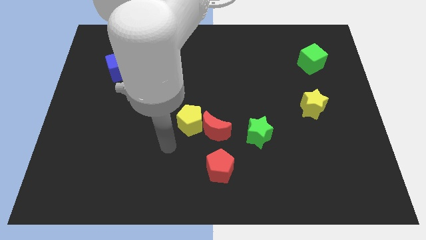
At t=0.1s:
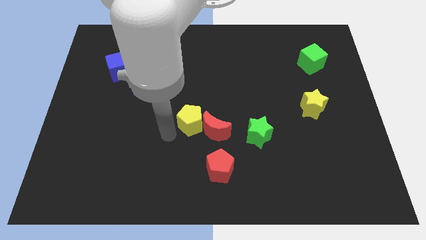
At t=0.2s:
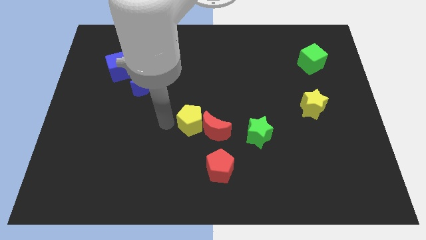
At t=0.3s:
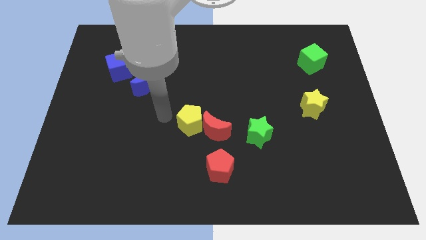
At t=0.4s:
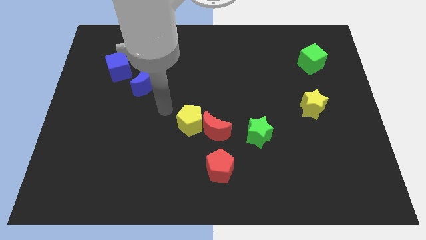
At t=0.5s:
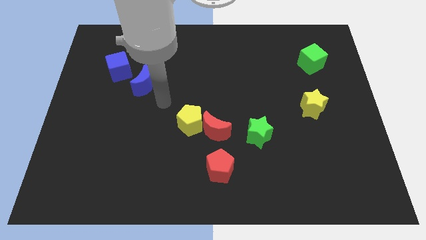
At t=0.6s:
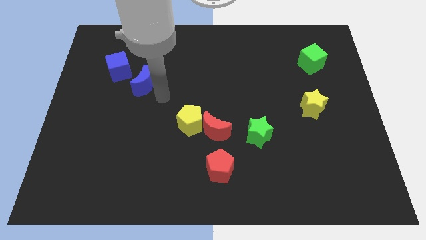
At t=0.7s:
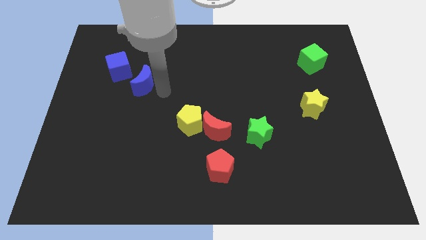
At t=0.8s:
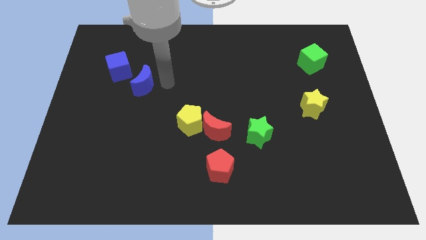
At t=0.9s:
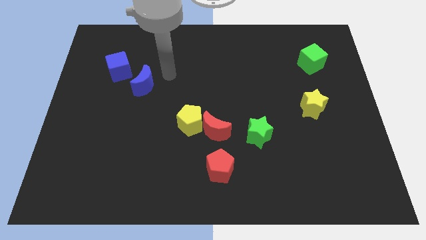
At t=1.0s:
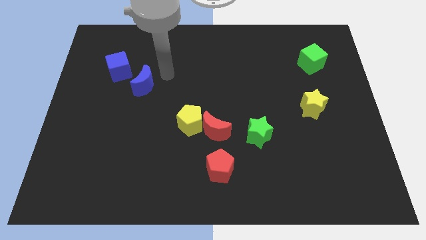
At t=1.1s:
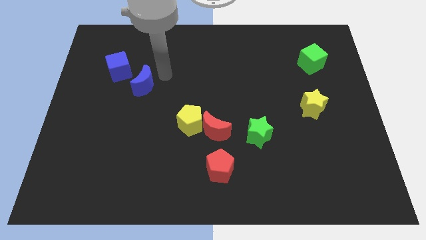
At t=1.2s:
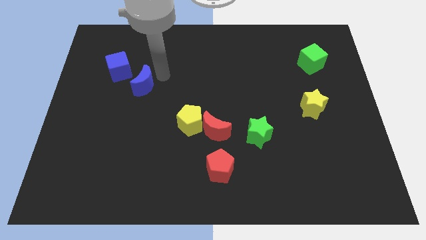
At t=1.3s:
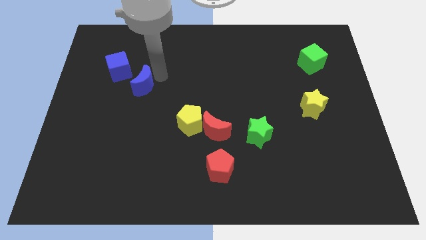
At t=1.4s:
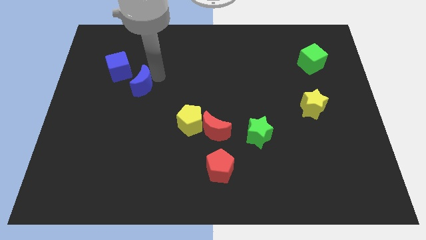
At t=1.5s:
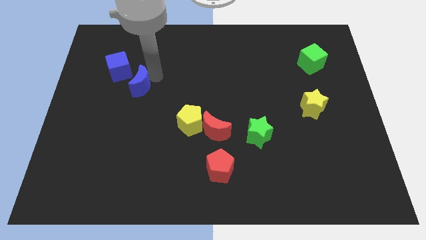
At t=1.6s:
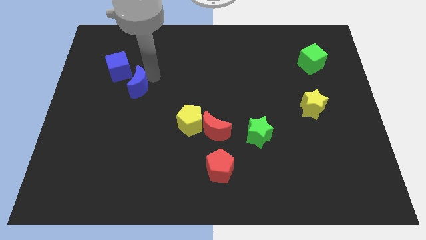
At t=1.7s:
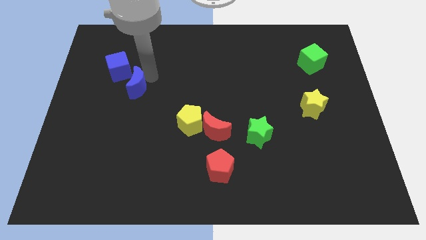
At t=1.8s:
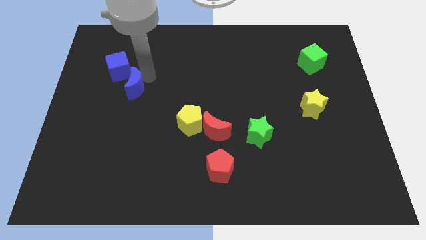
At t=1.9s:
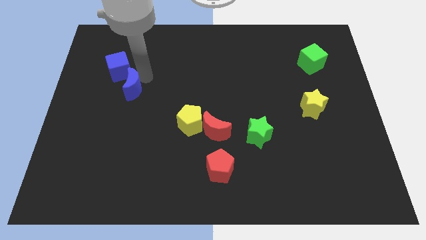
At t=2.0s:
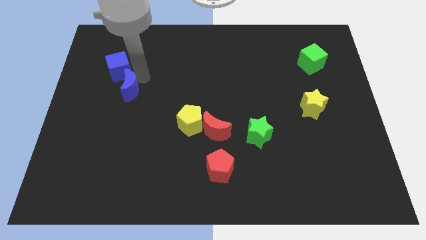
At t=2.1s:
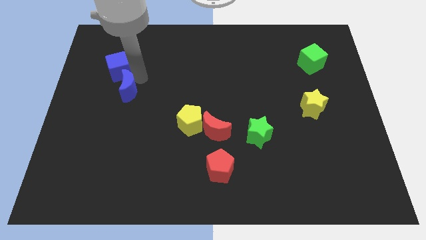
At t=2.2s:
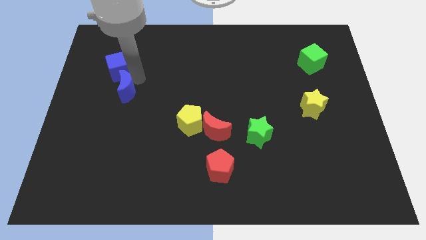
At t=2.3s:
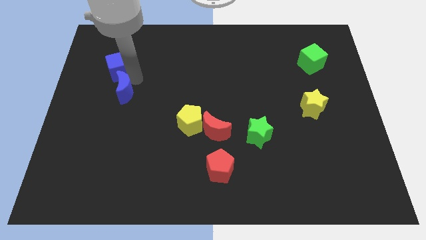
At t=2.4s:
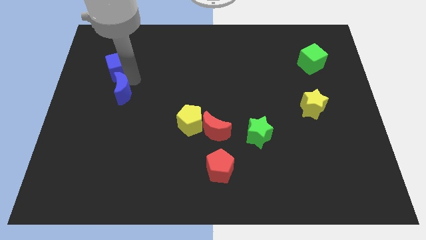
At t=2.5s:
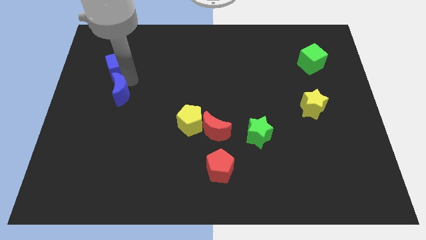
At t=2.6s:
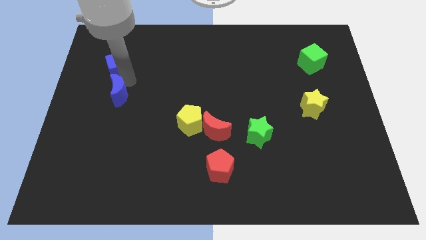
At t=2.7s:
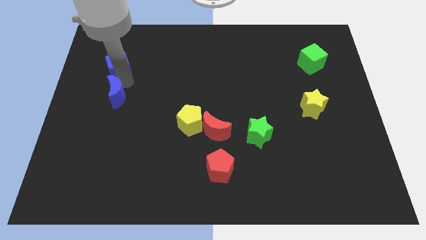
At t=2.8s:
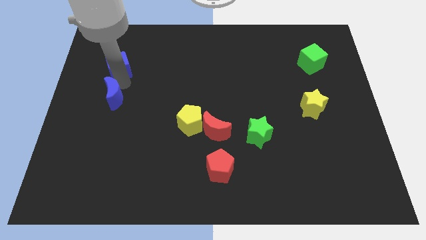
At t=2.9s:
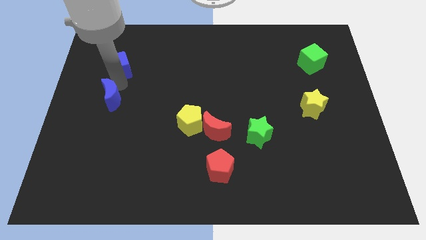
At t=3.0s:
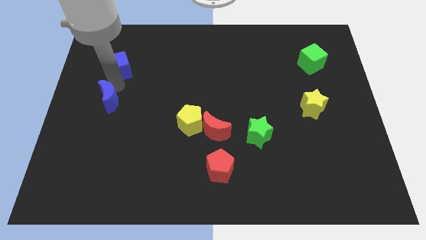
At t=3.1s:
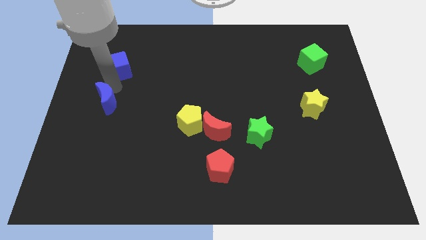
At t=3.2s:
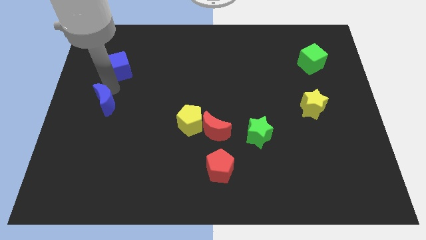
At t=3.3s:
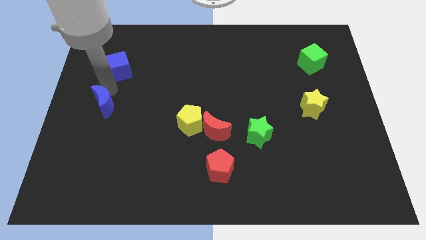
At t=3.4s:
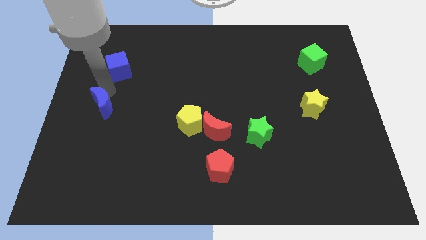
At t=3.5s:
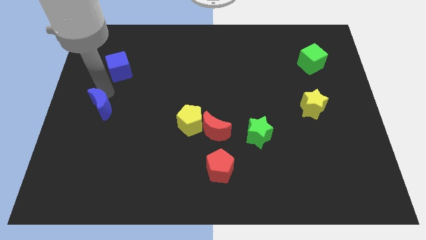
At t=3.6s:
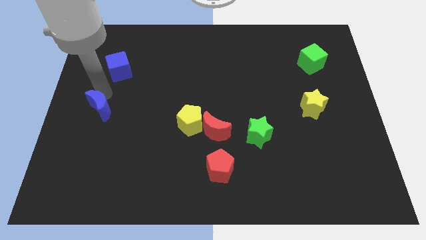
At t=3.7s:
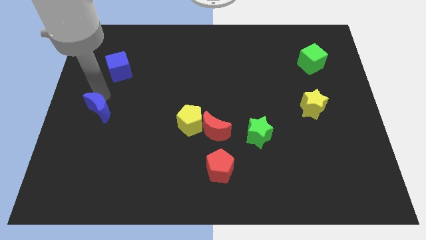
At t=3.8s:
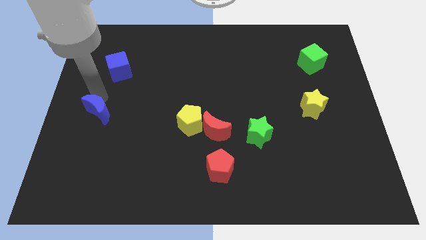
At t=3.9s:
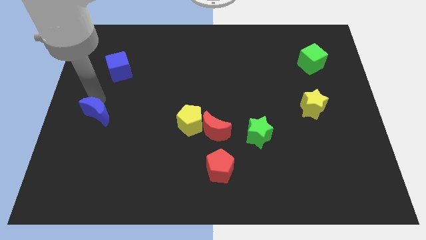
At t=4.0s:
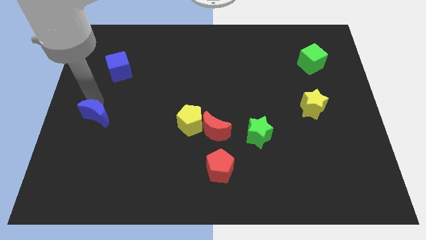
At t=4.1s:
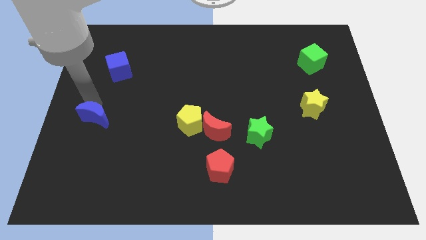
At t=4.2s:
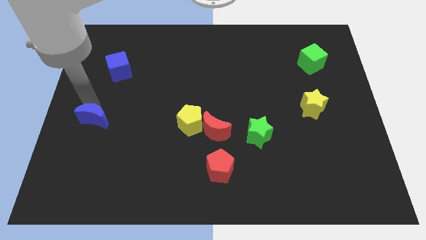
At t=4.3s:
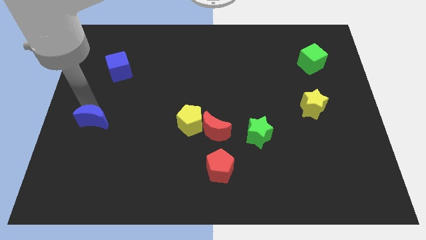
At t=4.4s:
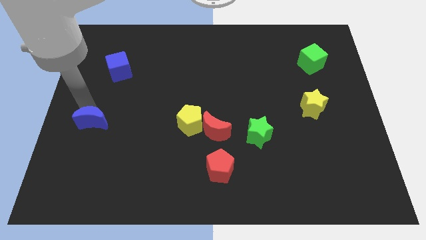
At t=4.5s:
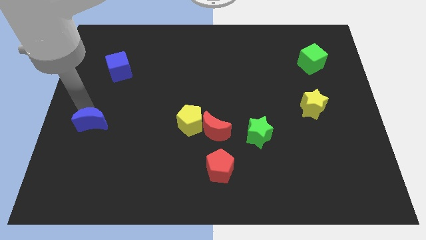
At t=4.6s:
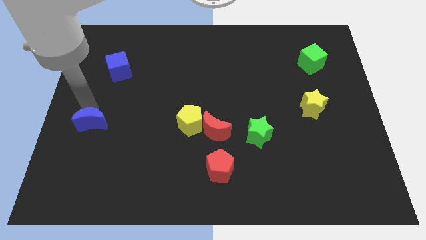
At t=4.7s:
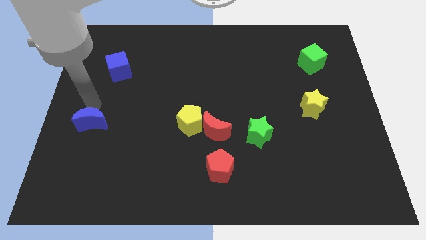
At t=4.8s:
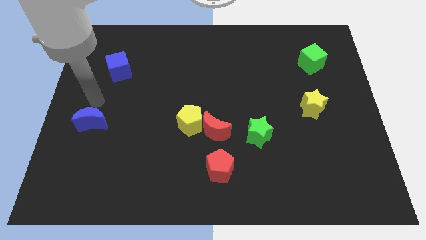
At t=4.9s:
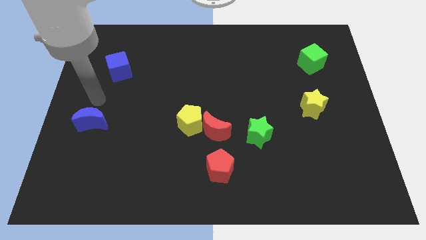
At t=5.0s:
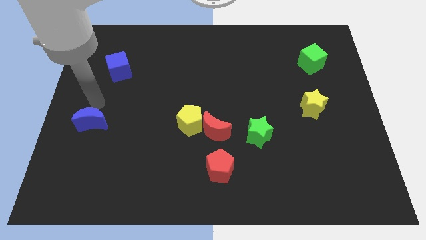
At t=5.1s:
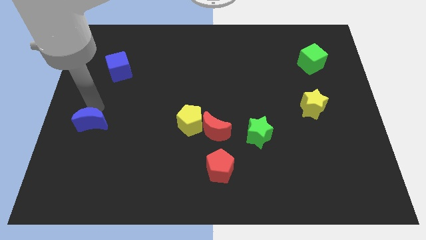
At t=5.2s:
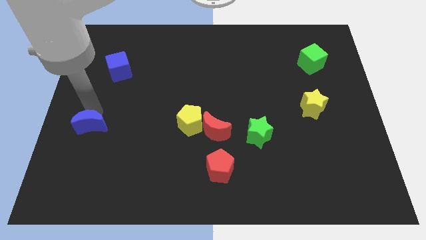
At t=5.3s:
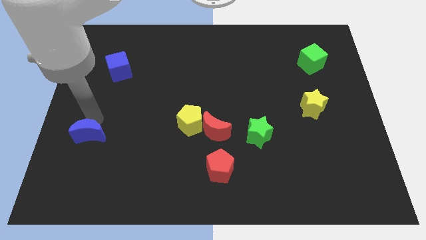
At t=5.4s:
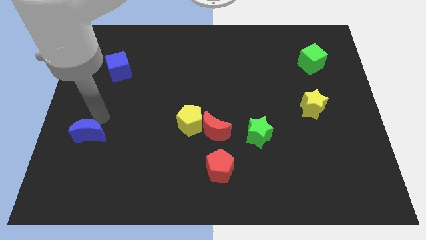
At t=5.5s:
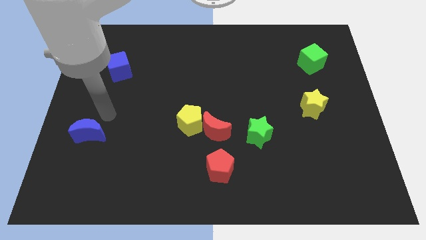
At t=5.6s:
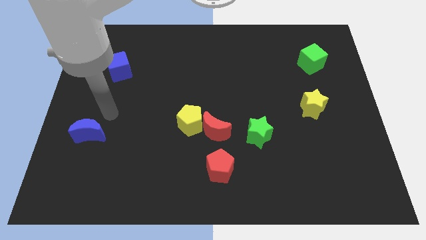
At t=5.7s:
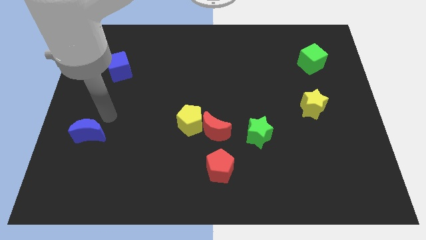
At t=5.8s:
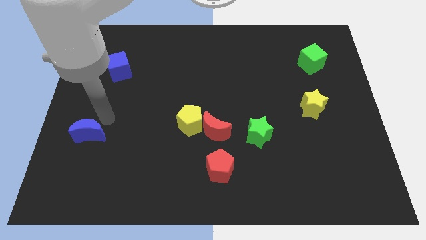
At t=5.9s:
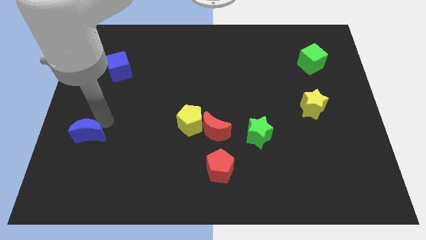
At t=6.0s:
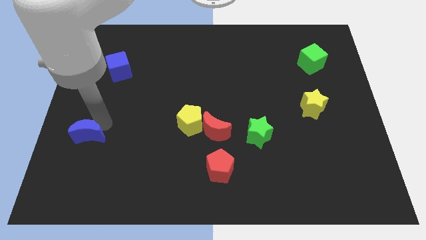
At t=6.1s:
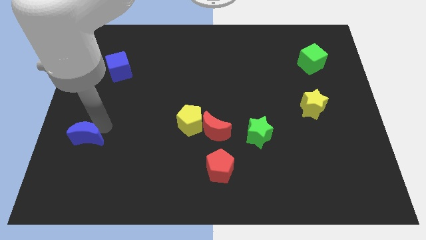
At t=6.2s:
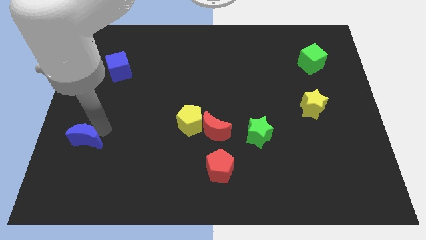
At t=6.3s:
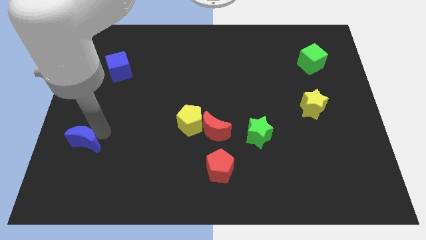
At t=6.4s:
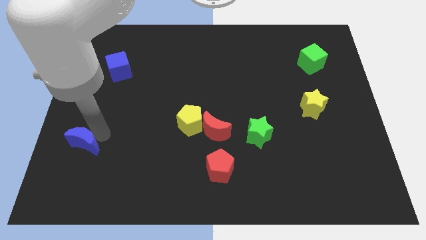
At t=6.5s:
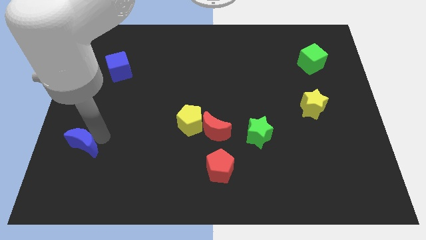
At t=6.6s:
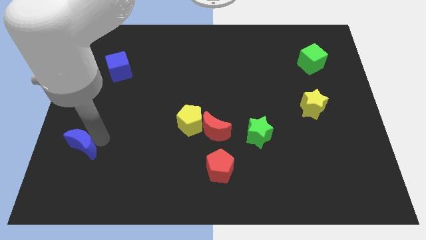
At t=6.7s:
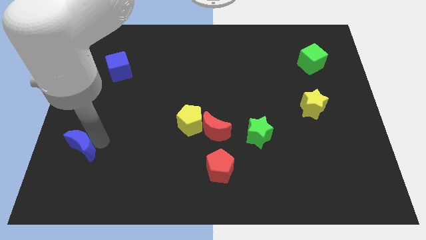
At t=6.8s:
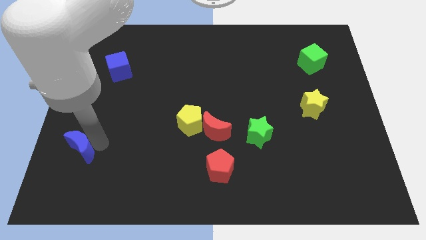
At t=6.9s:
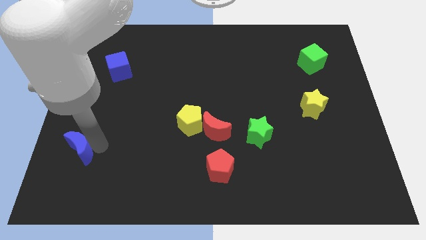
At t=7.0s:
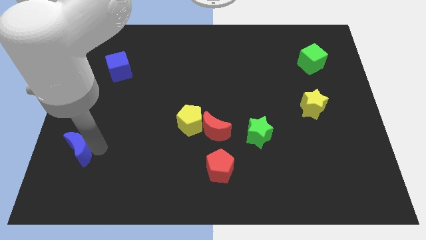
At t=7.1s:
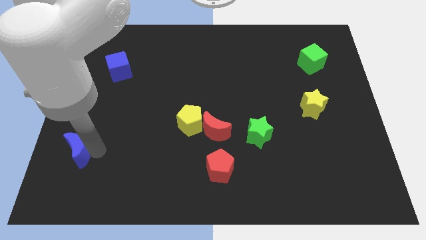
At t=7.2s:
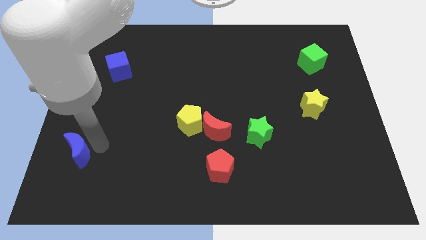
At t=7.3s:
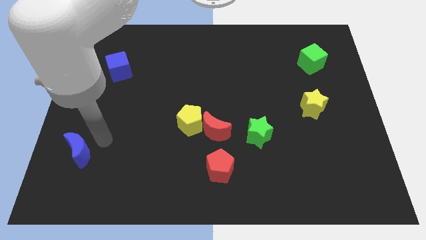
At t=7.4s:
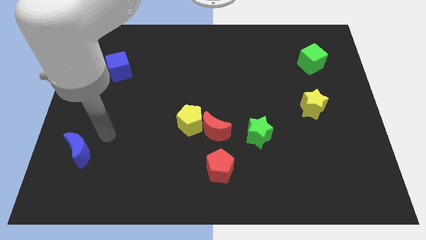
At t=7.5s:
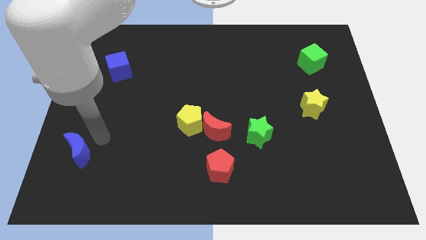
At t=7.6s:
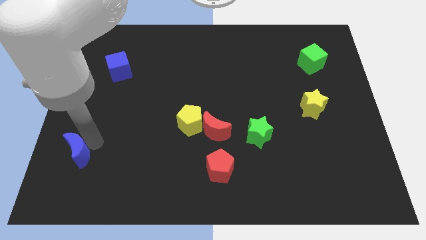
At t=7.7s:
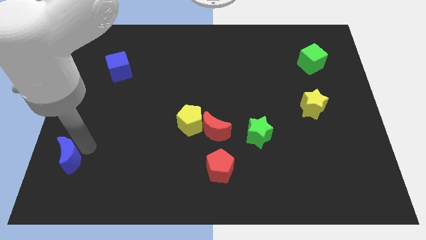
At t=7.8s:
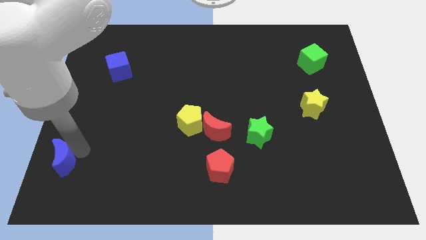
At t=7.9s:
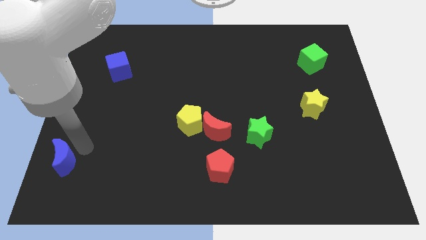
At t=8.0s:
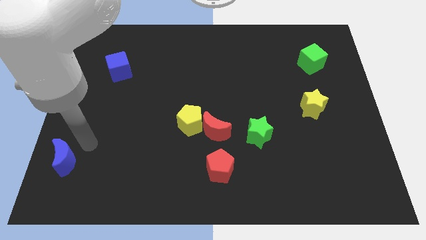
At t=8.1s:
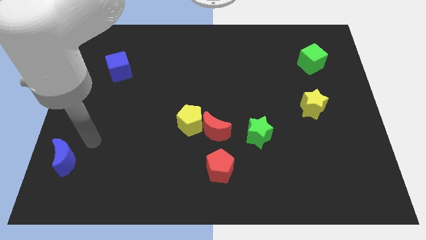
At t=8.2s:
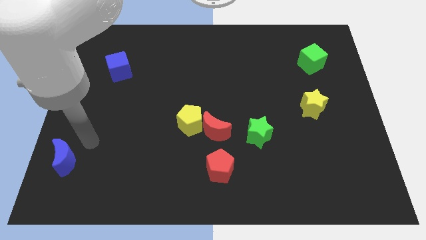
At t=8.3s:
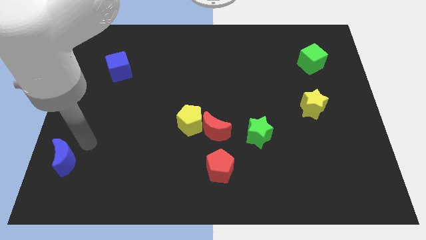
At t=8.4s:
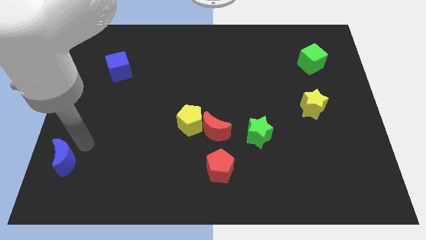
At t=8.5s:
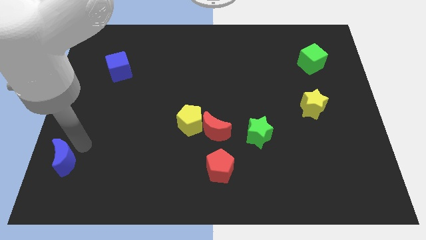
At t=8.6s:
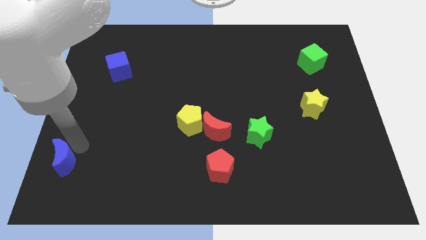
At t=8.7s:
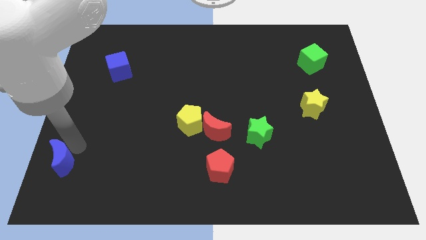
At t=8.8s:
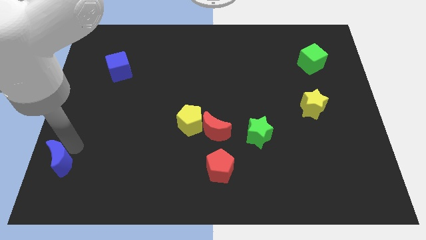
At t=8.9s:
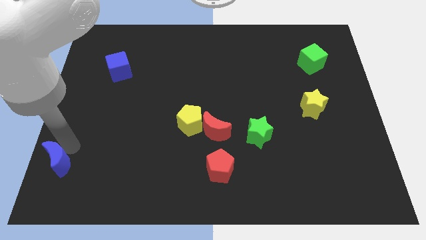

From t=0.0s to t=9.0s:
put the blue moon to the bottom left corner
